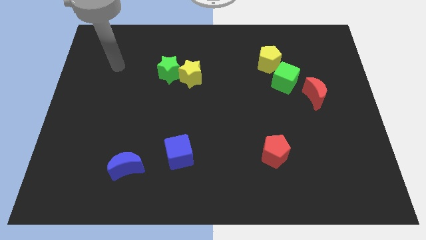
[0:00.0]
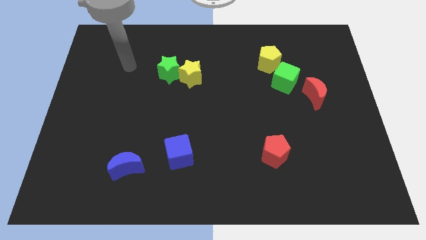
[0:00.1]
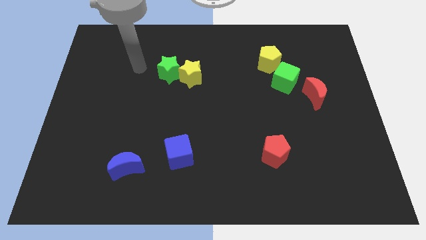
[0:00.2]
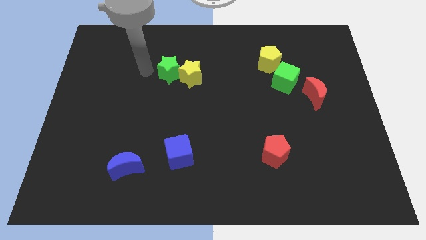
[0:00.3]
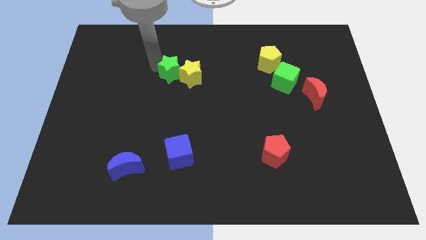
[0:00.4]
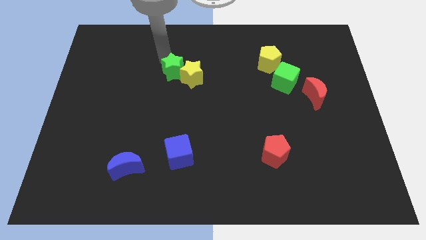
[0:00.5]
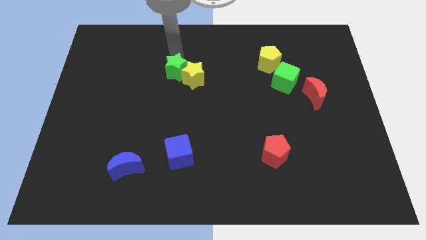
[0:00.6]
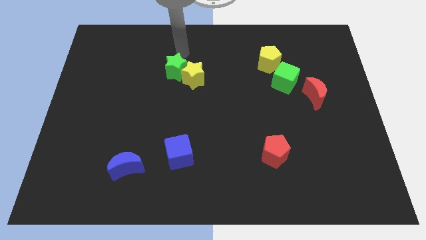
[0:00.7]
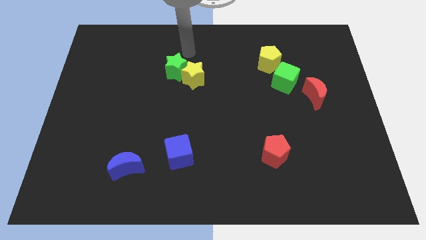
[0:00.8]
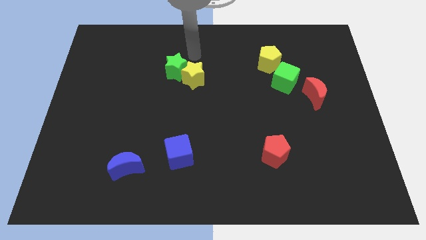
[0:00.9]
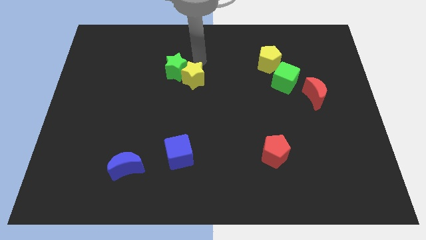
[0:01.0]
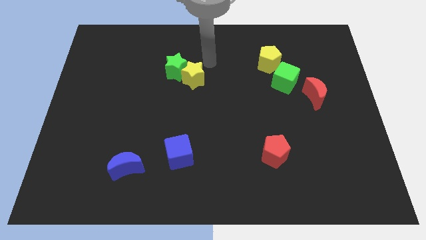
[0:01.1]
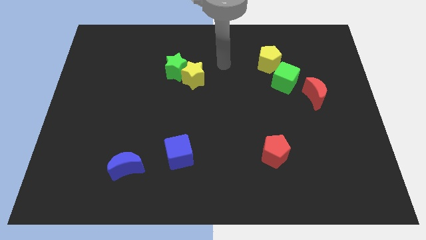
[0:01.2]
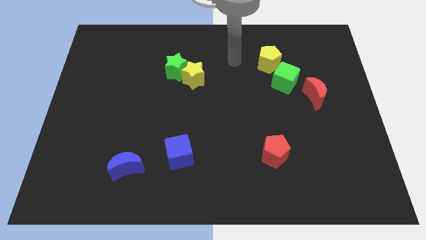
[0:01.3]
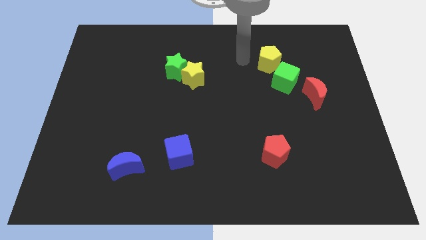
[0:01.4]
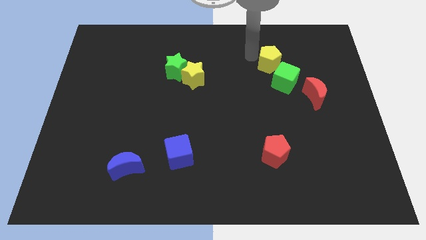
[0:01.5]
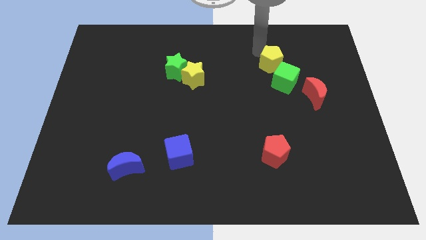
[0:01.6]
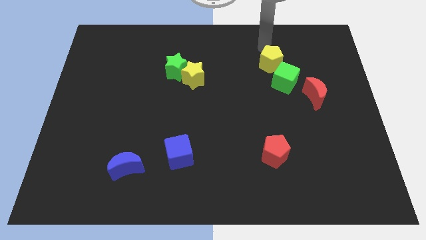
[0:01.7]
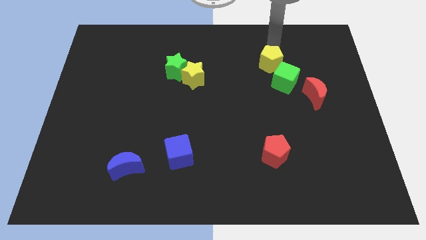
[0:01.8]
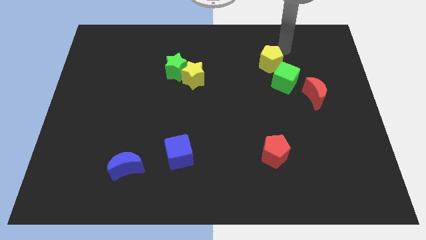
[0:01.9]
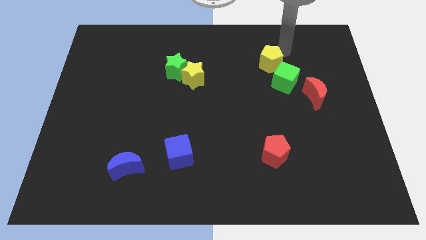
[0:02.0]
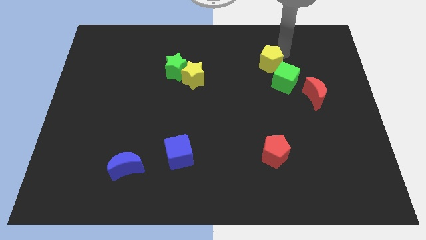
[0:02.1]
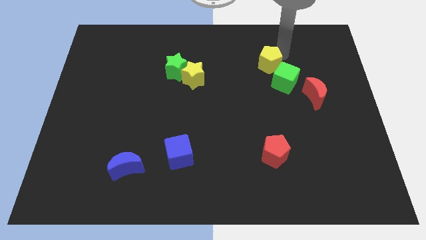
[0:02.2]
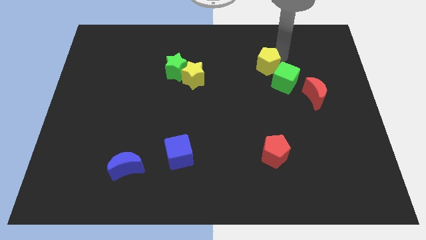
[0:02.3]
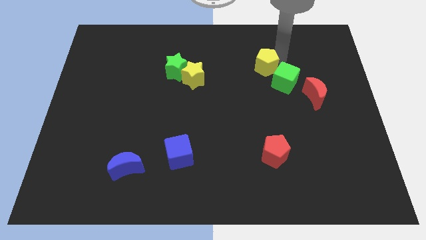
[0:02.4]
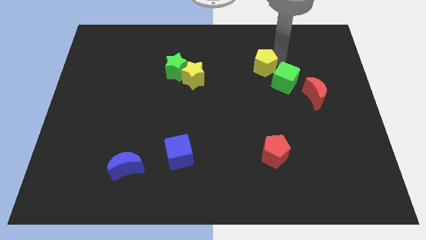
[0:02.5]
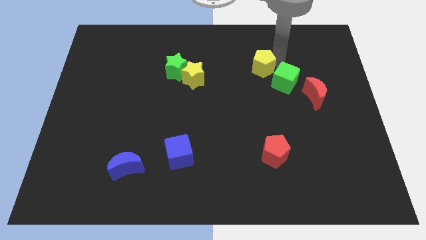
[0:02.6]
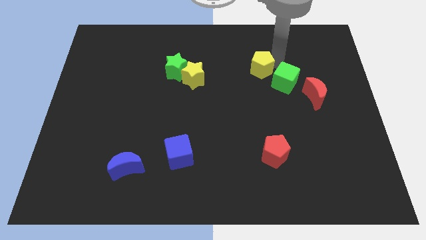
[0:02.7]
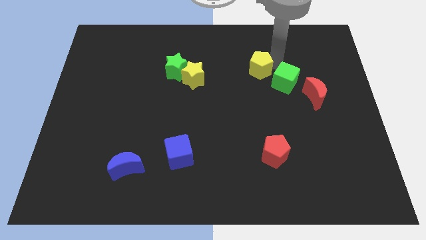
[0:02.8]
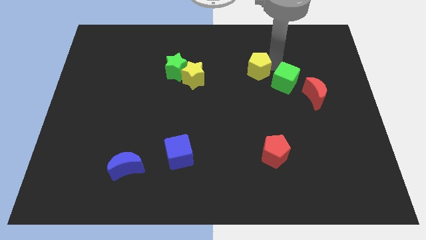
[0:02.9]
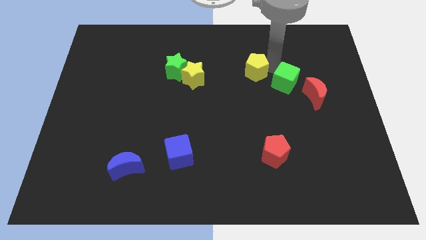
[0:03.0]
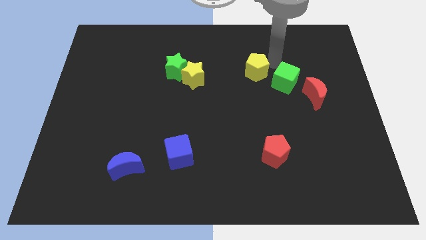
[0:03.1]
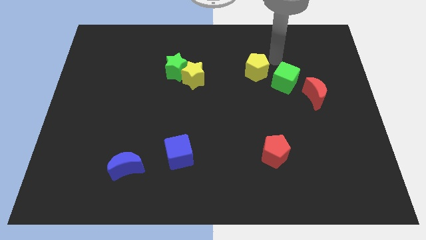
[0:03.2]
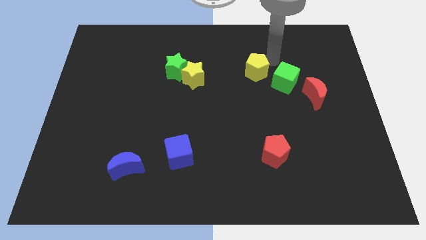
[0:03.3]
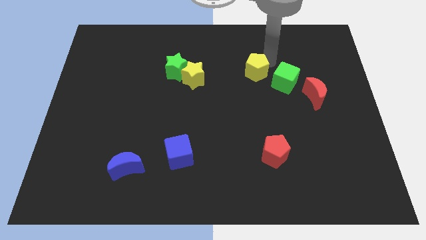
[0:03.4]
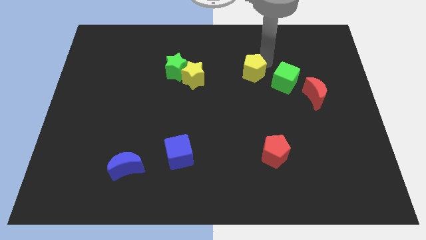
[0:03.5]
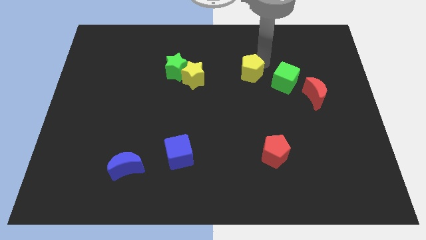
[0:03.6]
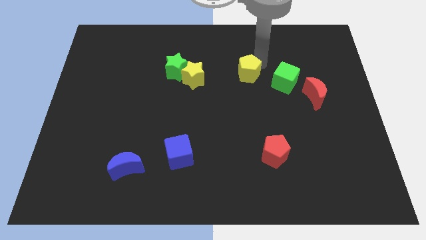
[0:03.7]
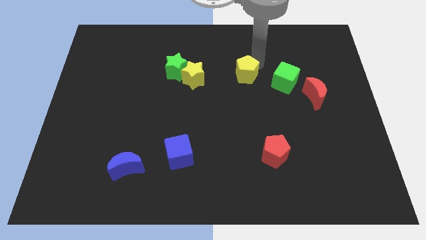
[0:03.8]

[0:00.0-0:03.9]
slide the yellow pentagon down and to the left somewhat

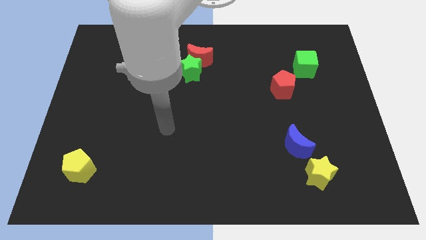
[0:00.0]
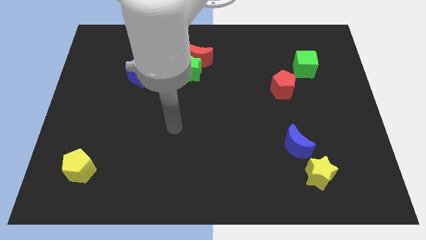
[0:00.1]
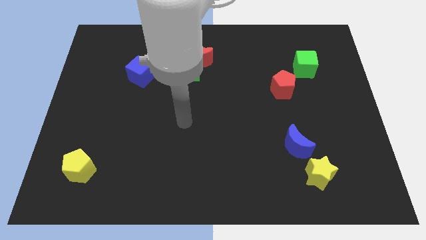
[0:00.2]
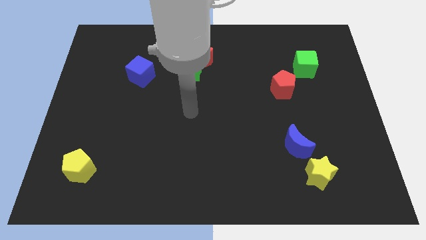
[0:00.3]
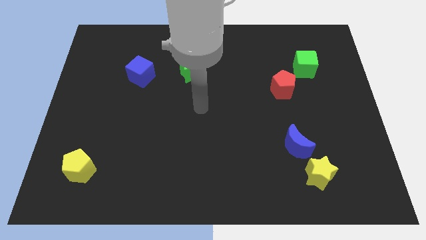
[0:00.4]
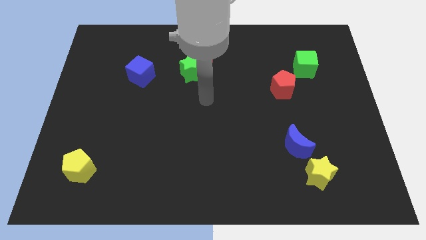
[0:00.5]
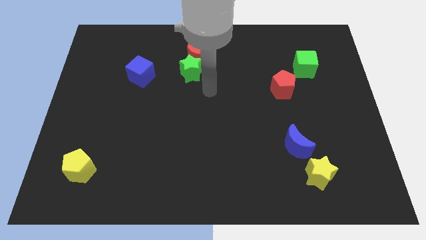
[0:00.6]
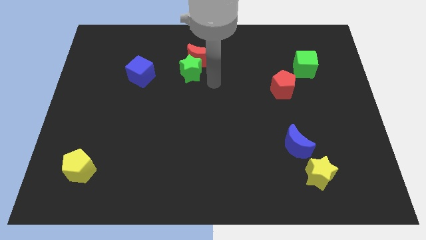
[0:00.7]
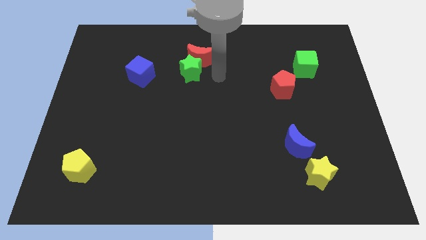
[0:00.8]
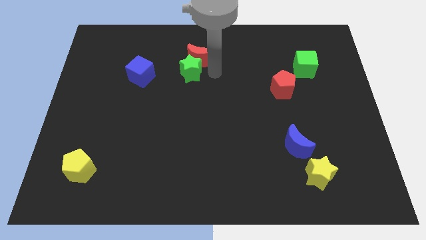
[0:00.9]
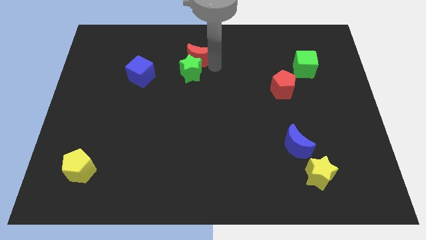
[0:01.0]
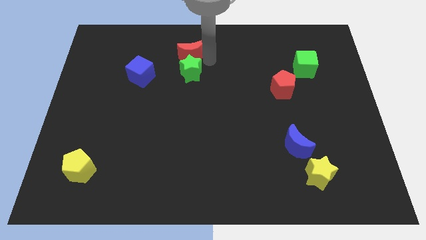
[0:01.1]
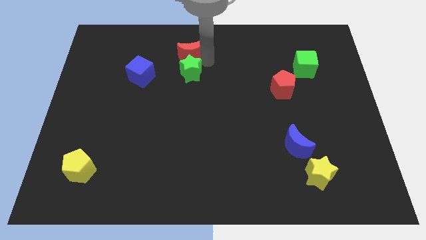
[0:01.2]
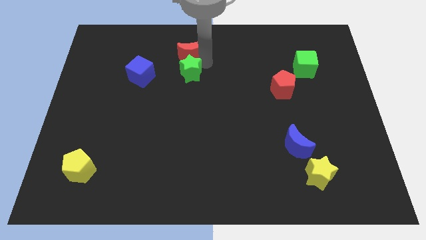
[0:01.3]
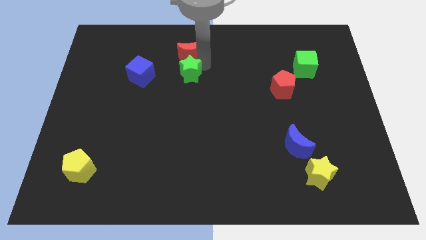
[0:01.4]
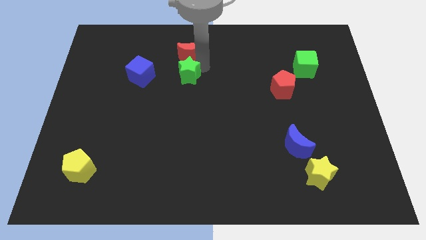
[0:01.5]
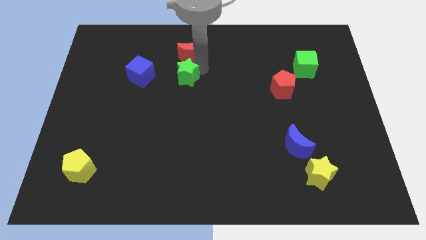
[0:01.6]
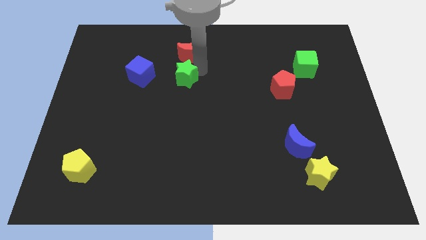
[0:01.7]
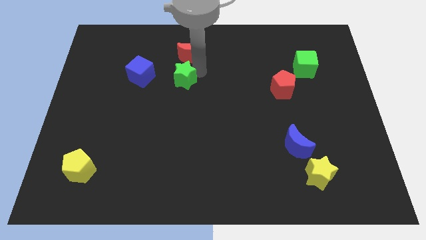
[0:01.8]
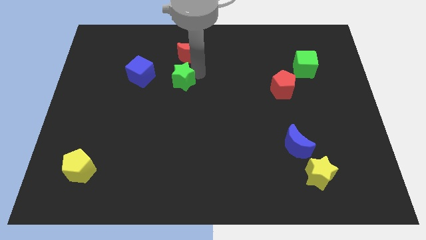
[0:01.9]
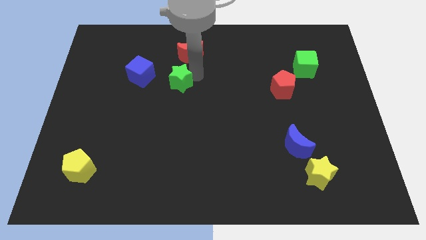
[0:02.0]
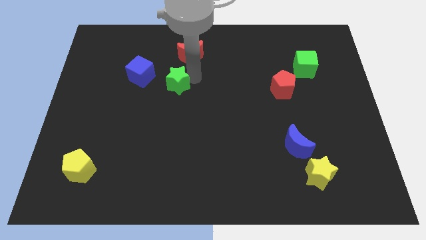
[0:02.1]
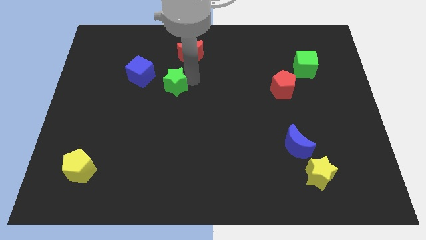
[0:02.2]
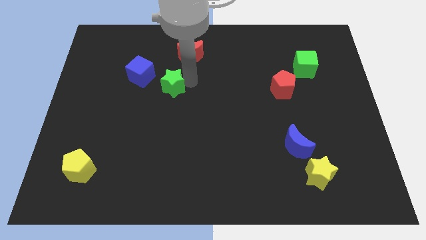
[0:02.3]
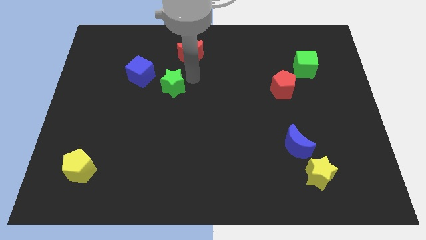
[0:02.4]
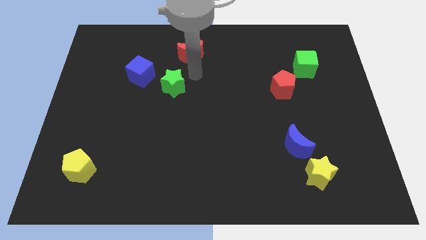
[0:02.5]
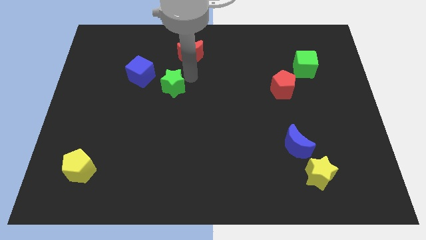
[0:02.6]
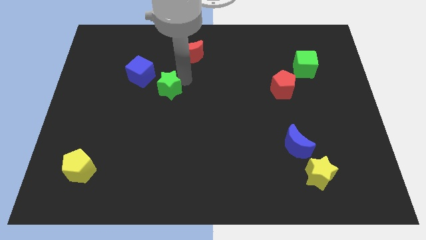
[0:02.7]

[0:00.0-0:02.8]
slide the green star a little diagonally down and left

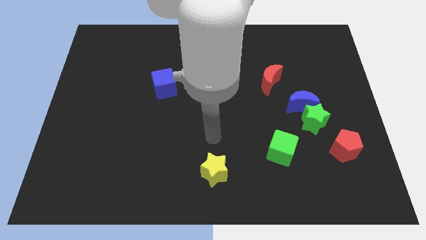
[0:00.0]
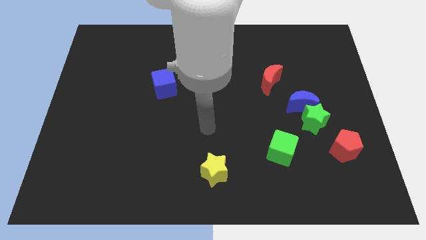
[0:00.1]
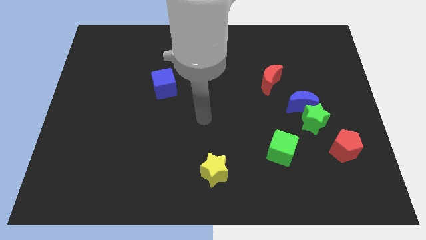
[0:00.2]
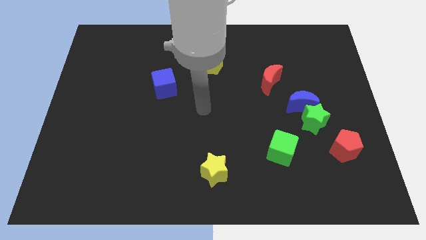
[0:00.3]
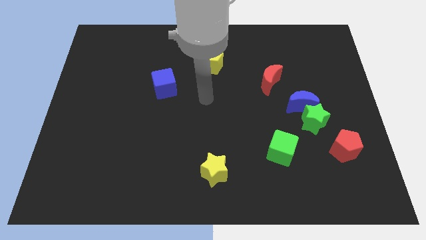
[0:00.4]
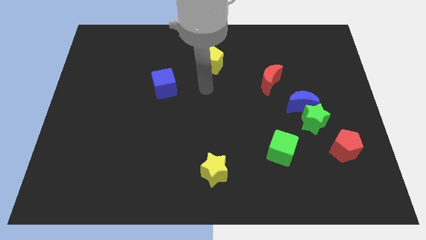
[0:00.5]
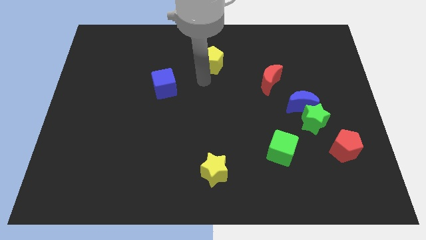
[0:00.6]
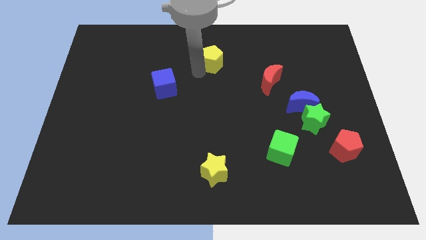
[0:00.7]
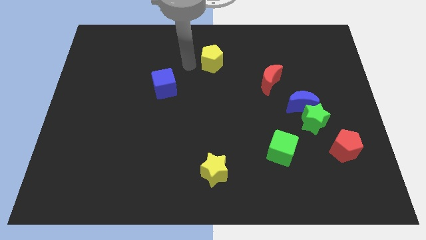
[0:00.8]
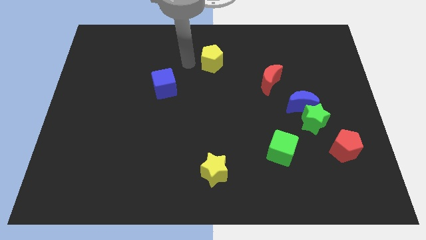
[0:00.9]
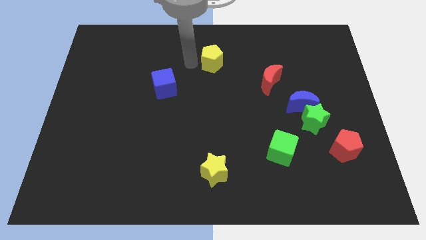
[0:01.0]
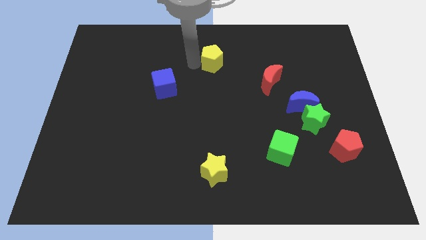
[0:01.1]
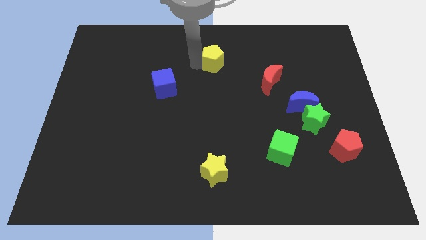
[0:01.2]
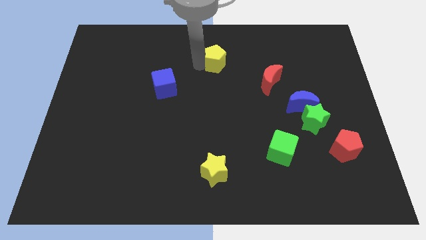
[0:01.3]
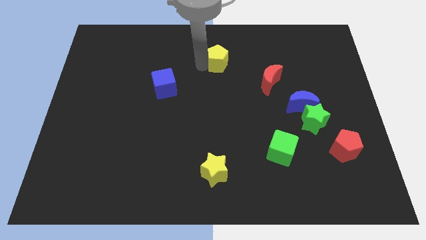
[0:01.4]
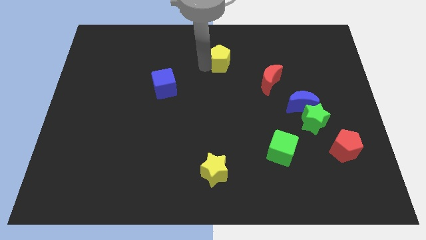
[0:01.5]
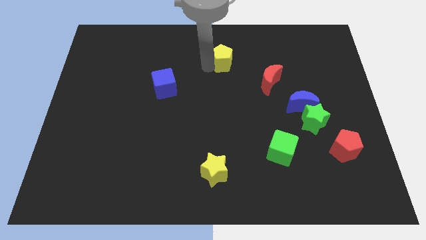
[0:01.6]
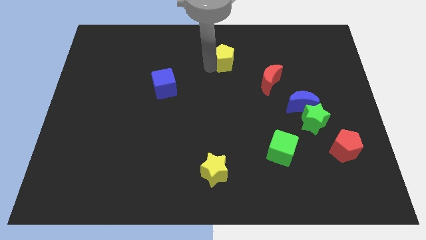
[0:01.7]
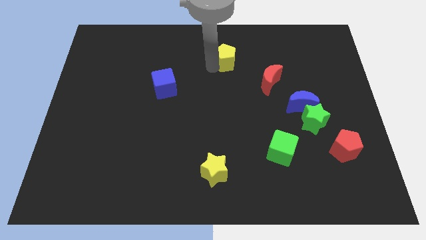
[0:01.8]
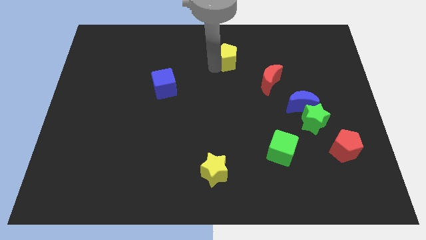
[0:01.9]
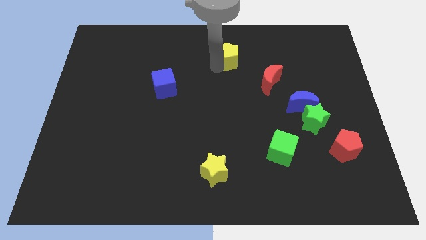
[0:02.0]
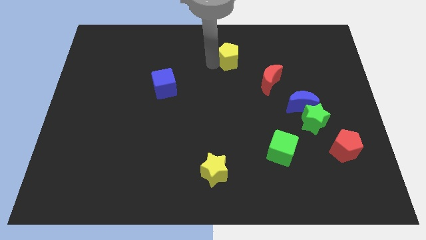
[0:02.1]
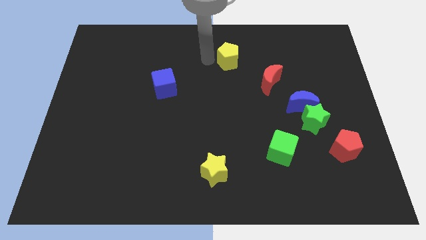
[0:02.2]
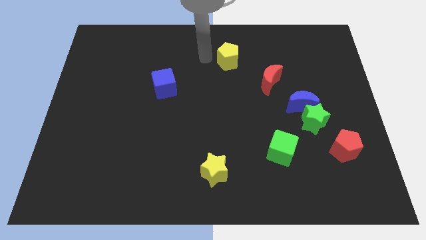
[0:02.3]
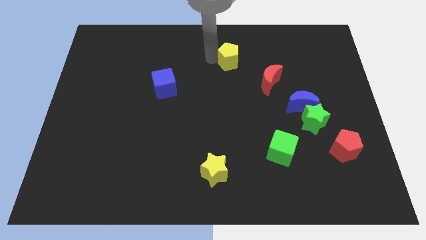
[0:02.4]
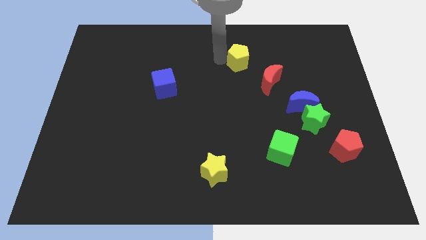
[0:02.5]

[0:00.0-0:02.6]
push the yellow pentagon to the right a little
